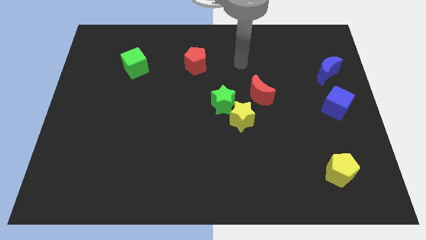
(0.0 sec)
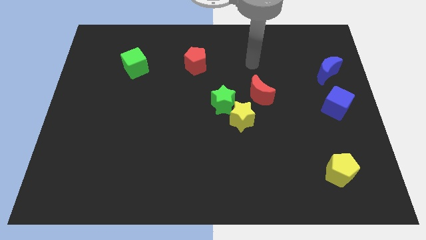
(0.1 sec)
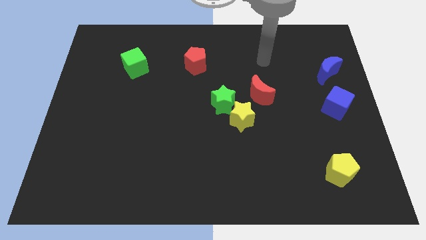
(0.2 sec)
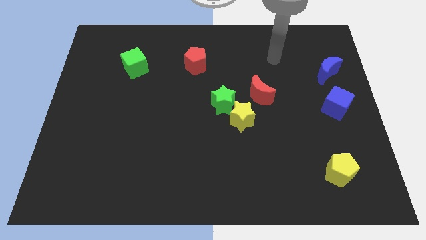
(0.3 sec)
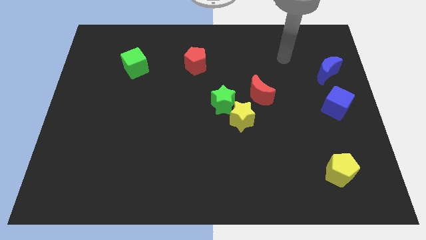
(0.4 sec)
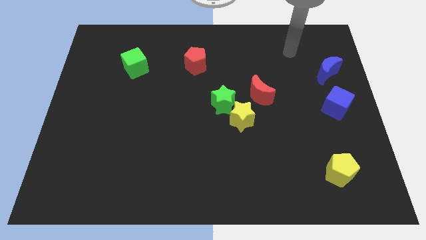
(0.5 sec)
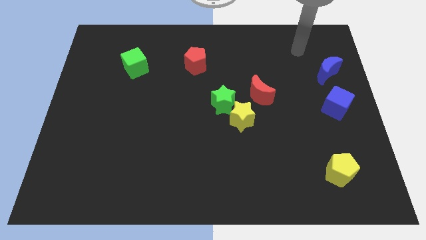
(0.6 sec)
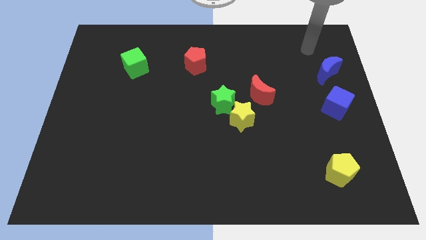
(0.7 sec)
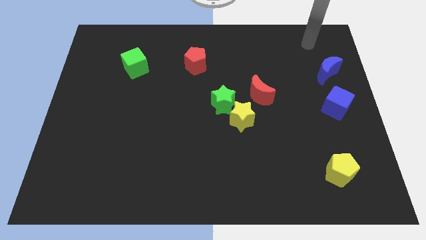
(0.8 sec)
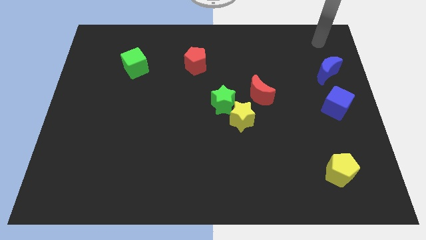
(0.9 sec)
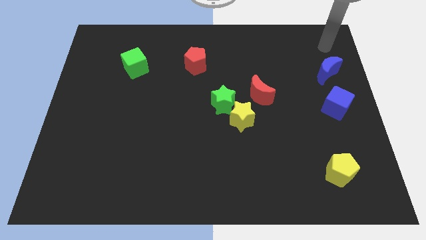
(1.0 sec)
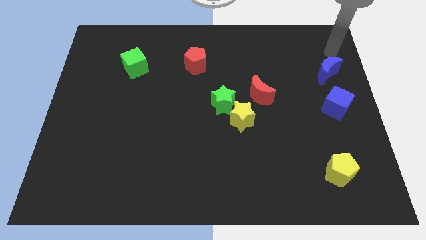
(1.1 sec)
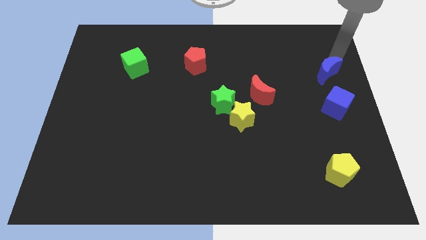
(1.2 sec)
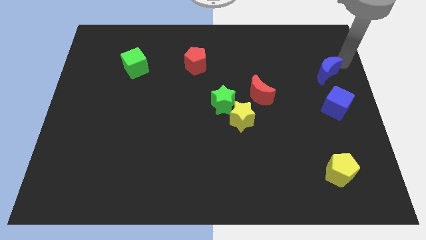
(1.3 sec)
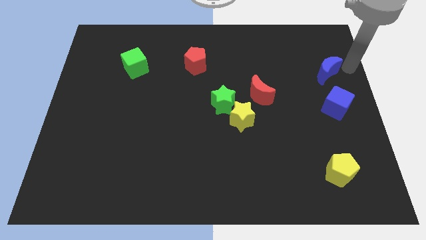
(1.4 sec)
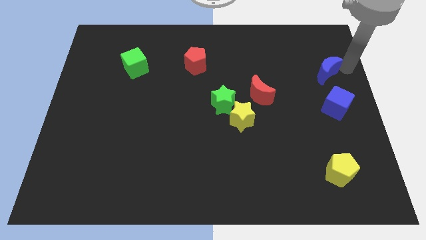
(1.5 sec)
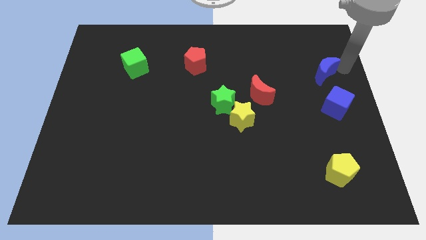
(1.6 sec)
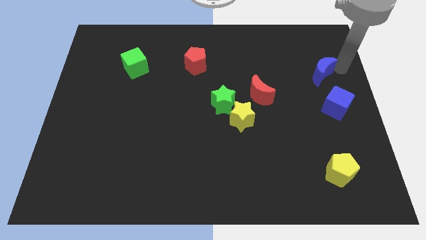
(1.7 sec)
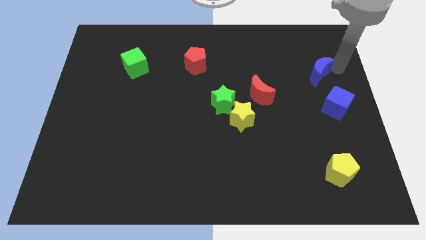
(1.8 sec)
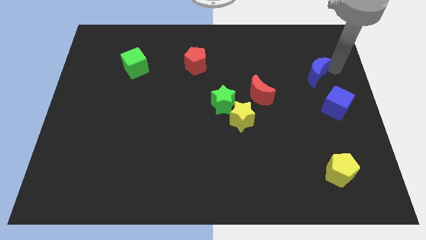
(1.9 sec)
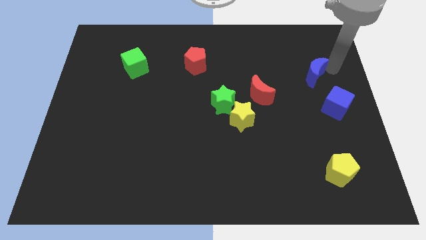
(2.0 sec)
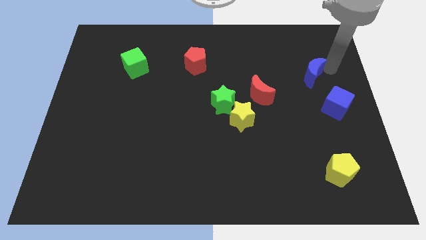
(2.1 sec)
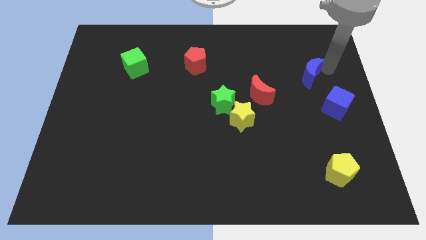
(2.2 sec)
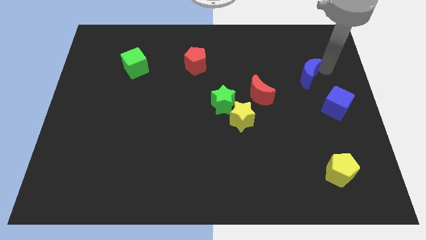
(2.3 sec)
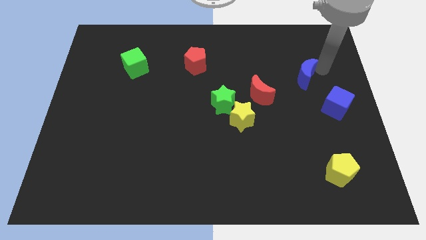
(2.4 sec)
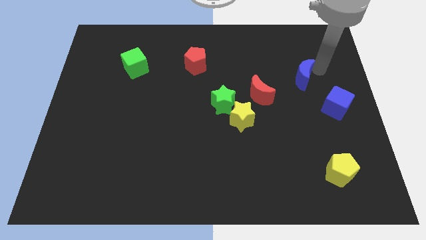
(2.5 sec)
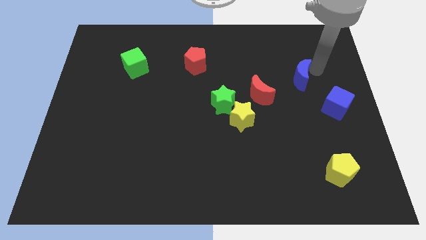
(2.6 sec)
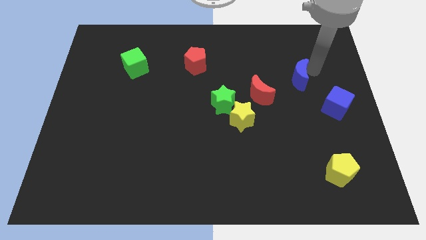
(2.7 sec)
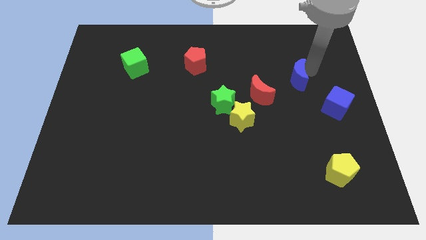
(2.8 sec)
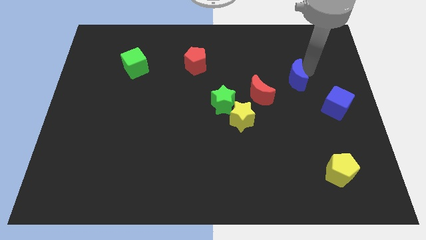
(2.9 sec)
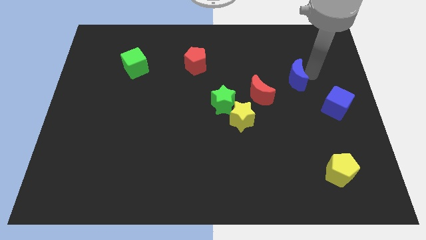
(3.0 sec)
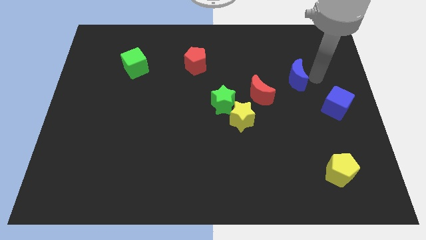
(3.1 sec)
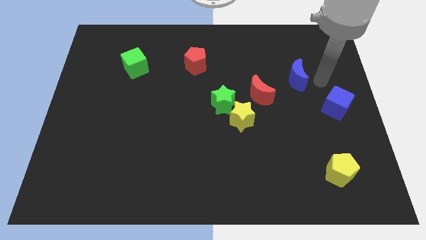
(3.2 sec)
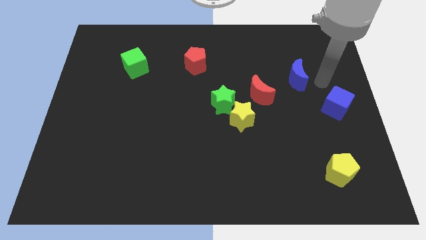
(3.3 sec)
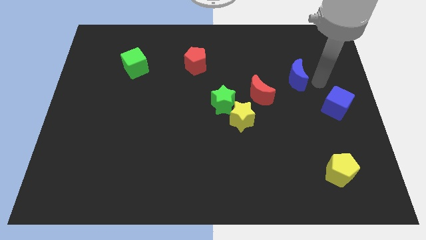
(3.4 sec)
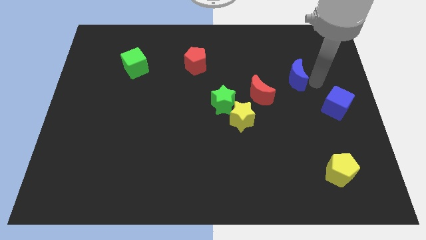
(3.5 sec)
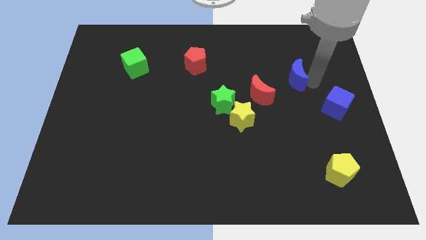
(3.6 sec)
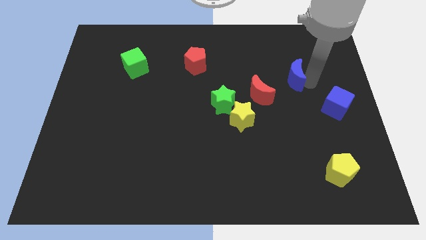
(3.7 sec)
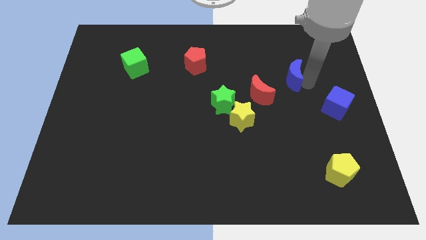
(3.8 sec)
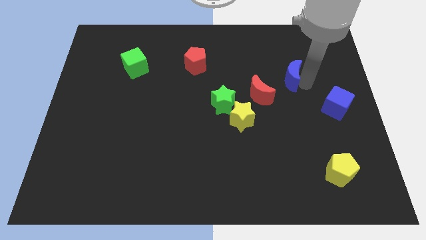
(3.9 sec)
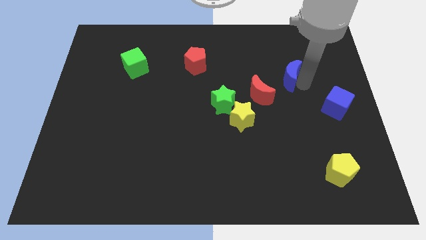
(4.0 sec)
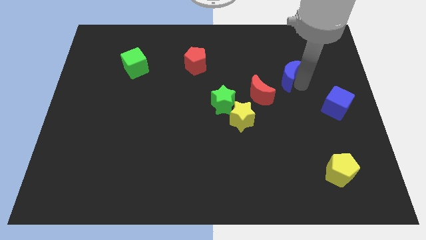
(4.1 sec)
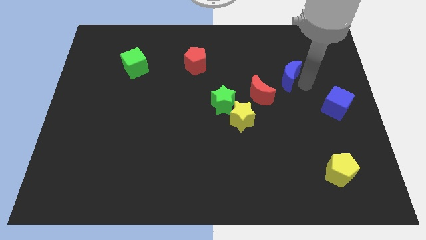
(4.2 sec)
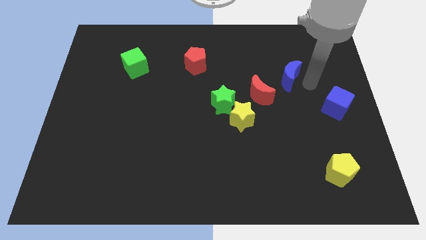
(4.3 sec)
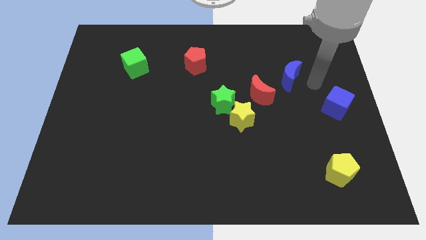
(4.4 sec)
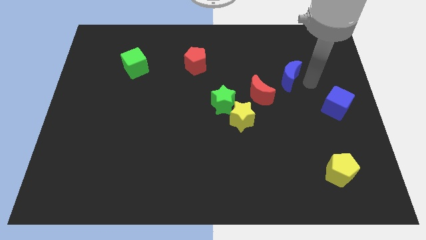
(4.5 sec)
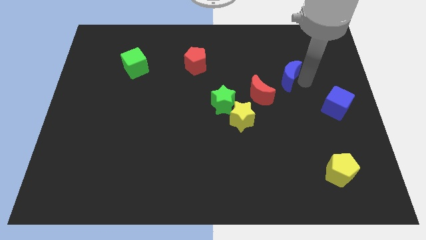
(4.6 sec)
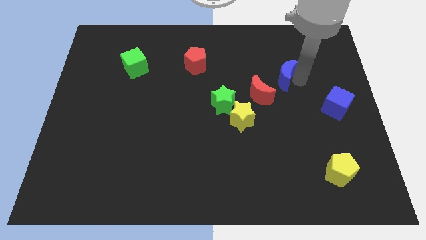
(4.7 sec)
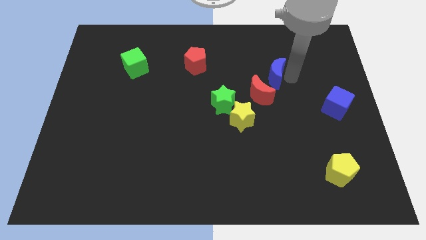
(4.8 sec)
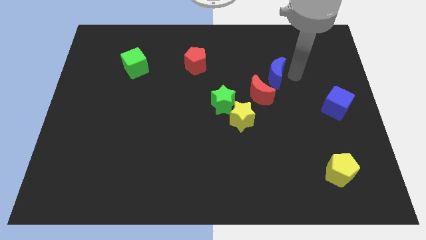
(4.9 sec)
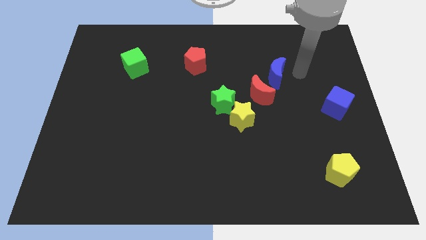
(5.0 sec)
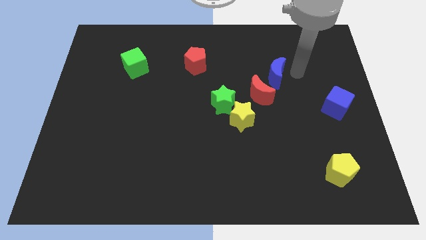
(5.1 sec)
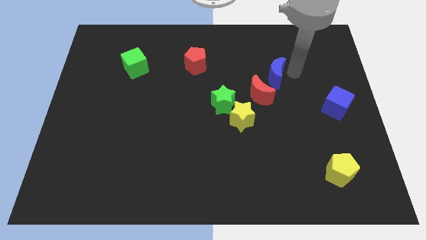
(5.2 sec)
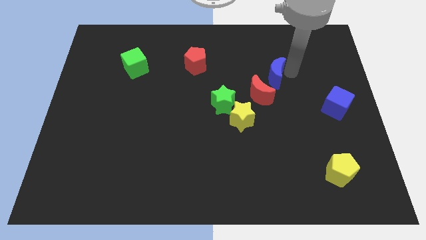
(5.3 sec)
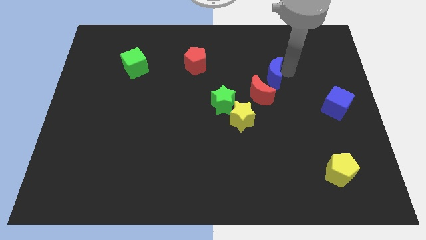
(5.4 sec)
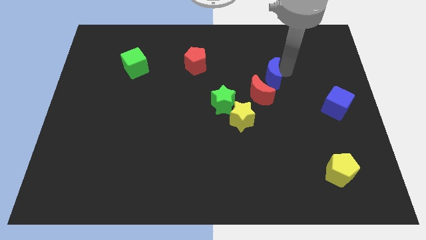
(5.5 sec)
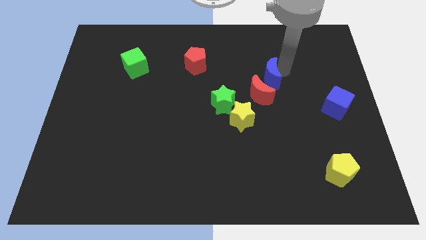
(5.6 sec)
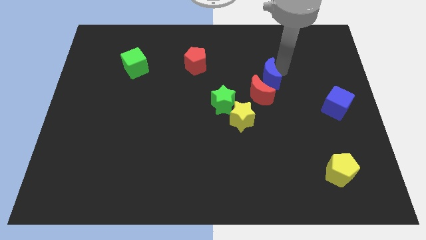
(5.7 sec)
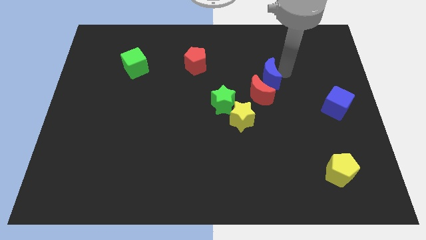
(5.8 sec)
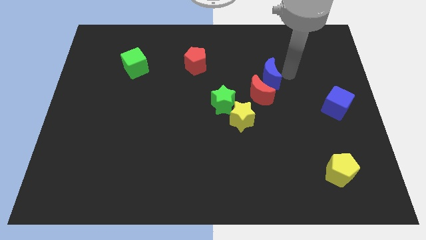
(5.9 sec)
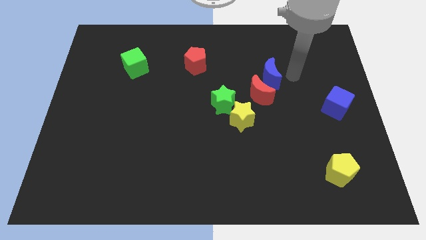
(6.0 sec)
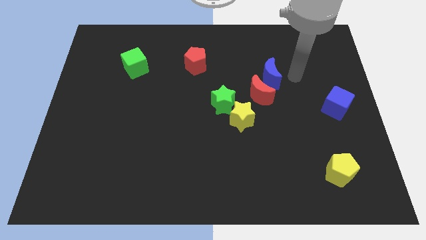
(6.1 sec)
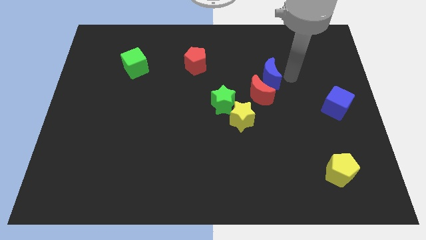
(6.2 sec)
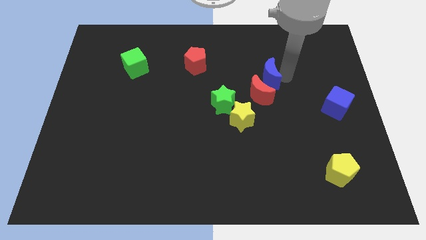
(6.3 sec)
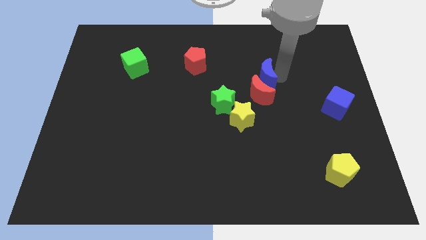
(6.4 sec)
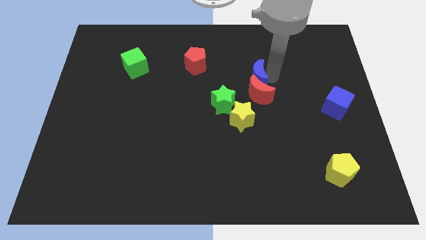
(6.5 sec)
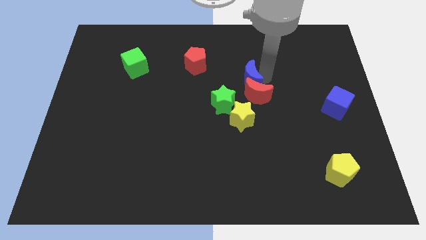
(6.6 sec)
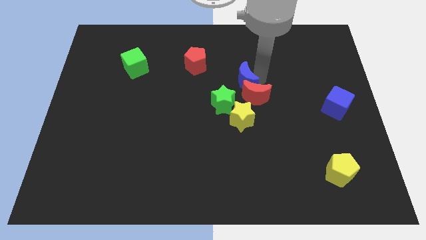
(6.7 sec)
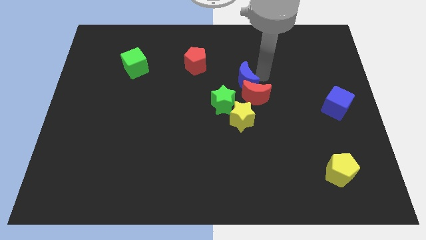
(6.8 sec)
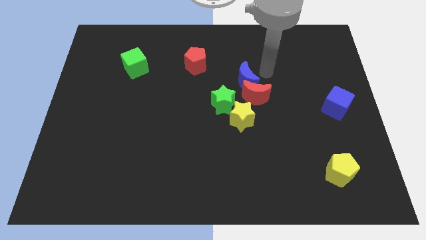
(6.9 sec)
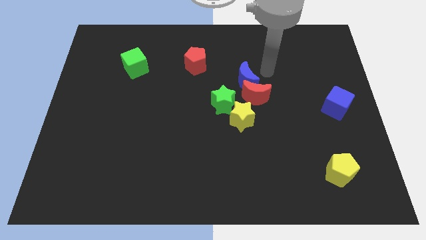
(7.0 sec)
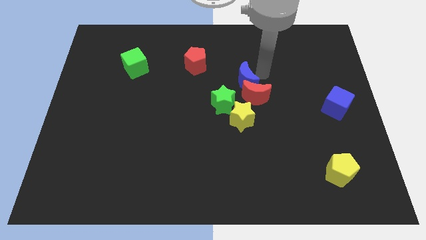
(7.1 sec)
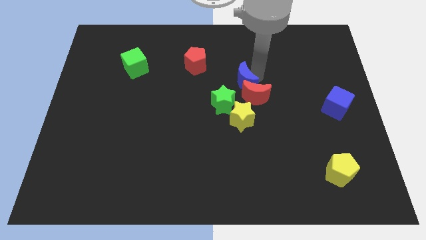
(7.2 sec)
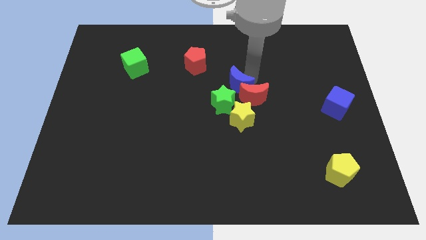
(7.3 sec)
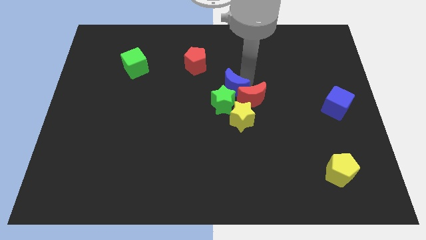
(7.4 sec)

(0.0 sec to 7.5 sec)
slide the blue moon to the green star
